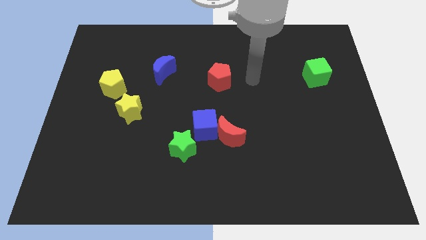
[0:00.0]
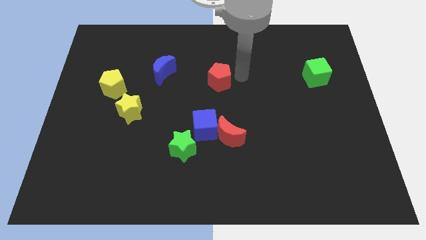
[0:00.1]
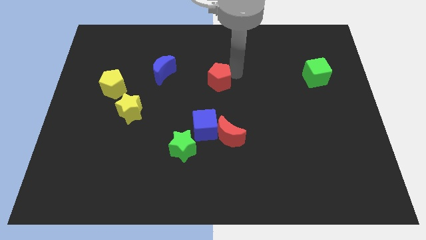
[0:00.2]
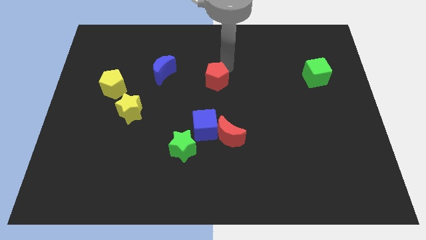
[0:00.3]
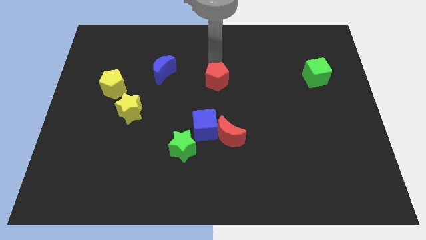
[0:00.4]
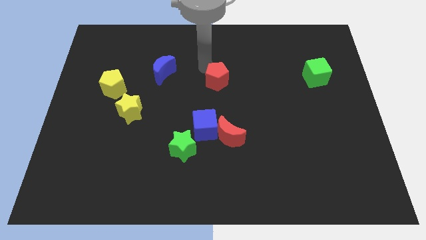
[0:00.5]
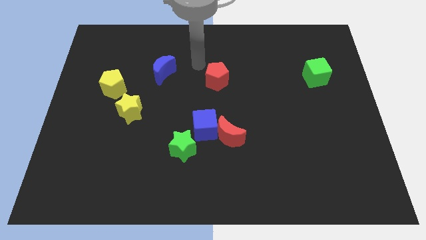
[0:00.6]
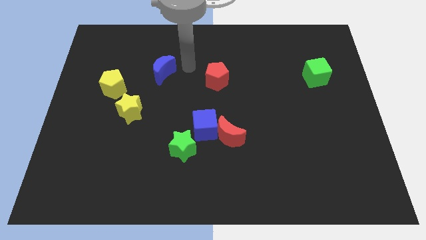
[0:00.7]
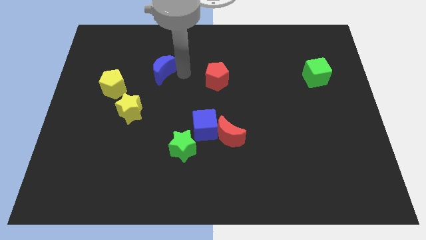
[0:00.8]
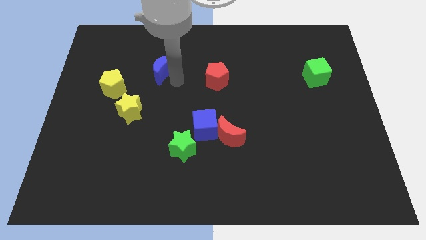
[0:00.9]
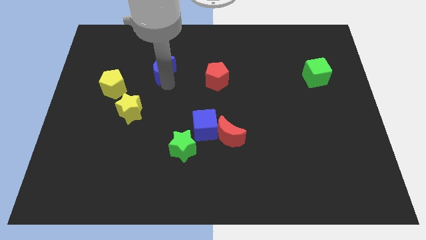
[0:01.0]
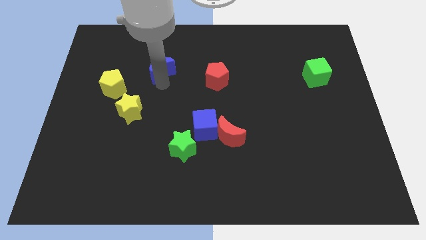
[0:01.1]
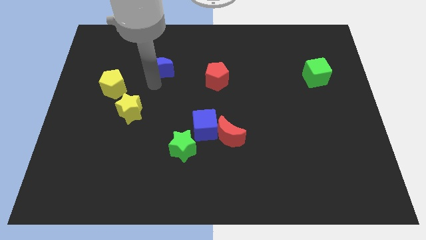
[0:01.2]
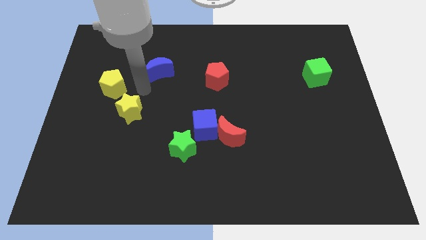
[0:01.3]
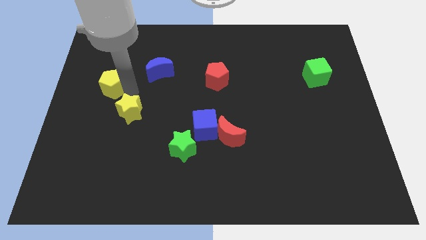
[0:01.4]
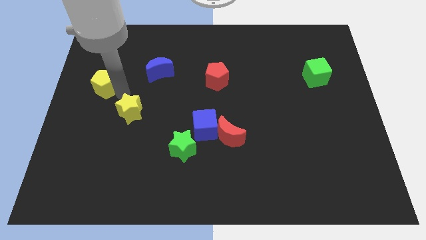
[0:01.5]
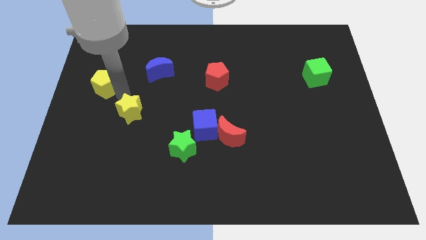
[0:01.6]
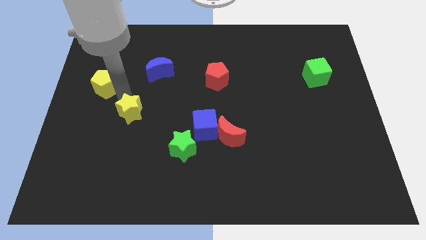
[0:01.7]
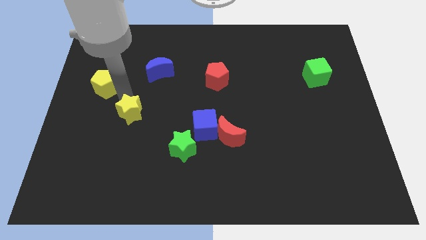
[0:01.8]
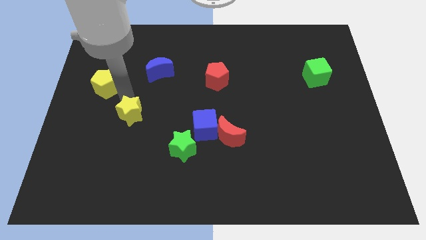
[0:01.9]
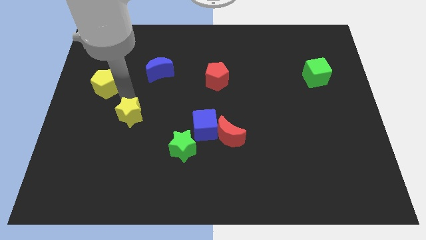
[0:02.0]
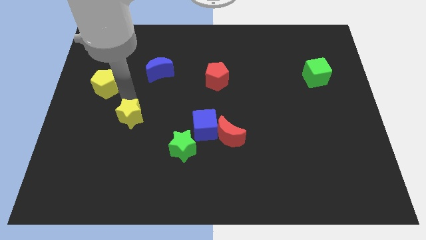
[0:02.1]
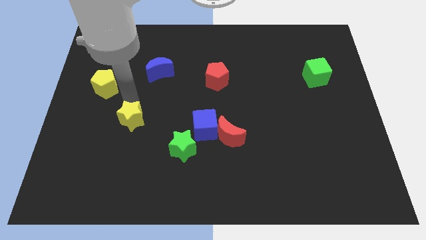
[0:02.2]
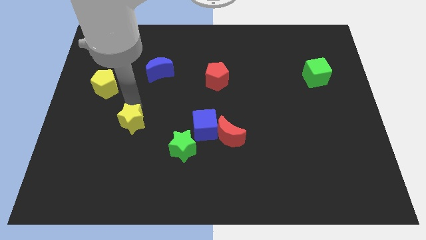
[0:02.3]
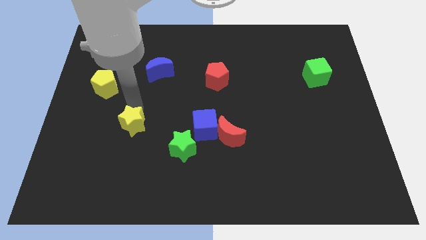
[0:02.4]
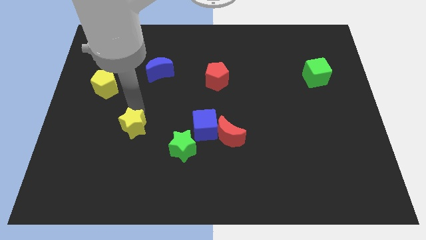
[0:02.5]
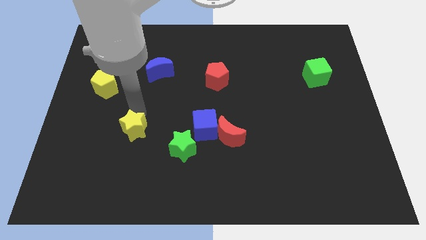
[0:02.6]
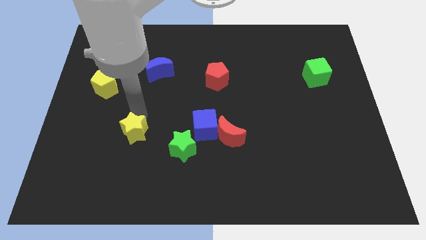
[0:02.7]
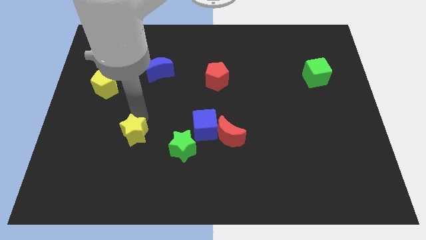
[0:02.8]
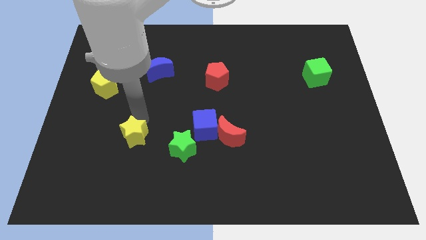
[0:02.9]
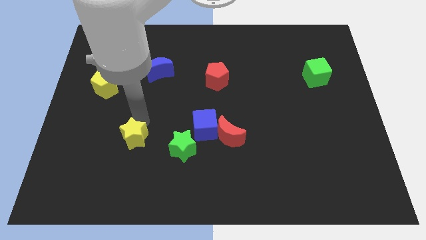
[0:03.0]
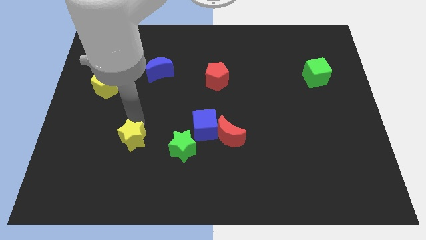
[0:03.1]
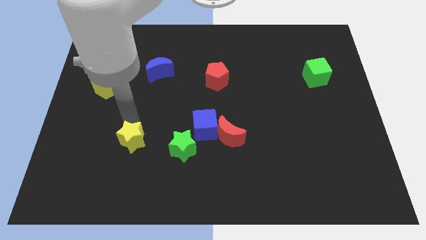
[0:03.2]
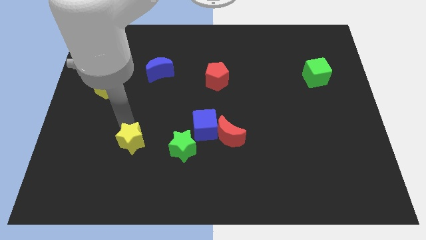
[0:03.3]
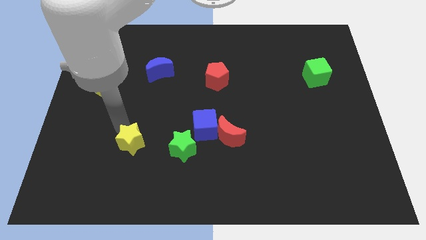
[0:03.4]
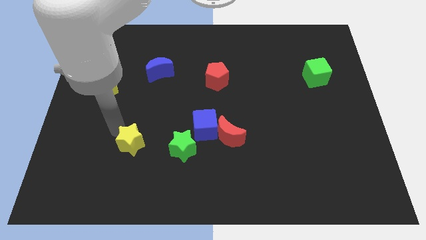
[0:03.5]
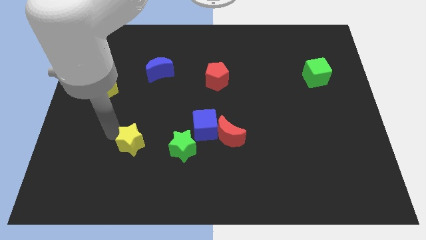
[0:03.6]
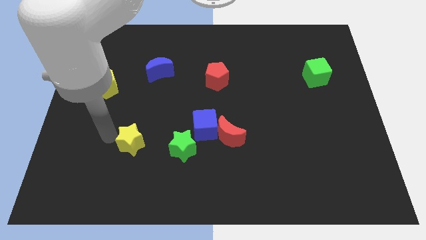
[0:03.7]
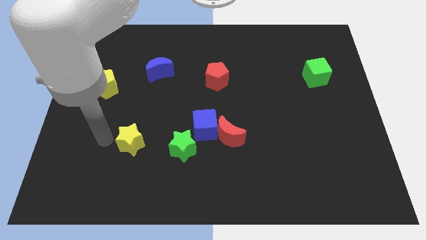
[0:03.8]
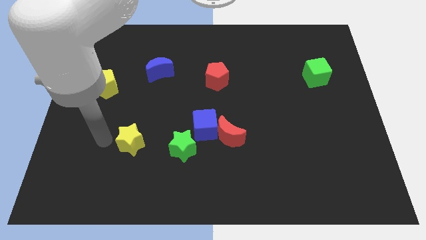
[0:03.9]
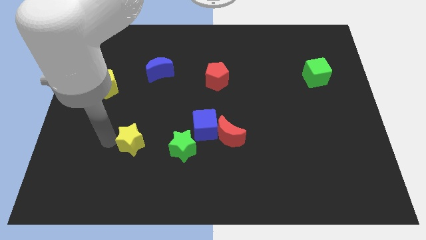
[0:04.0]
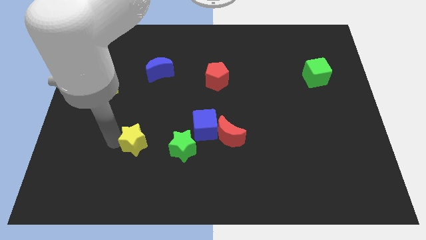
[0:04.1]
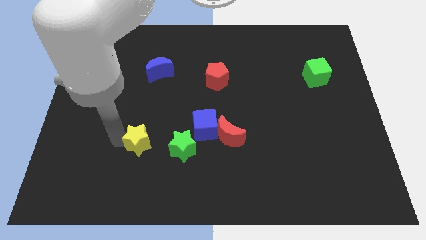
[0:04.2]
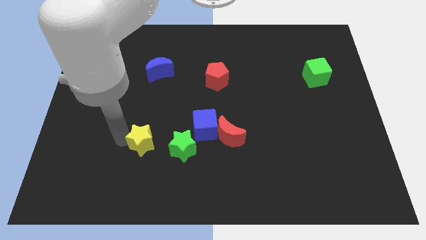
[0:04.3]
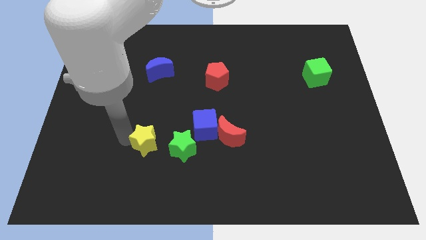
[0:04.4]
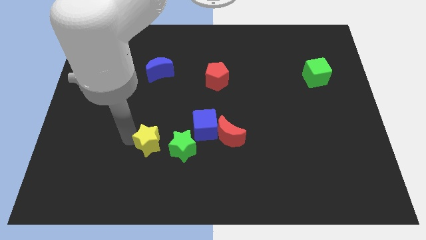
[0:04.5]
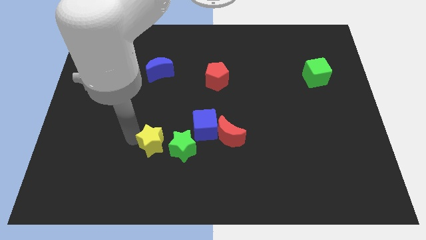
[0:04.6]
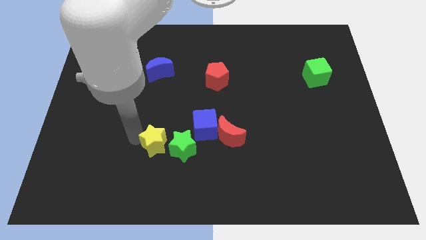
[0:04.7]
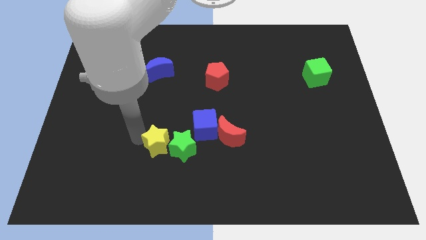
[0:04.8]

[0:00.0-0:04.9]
move the yellow star to the bottom left of the blue cube

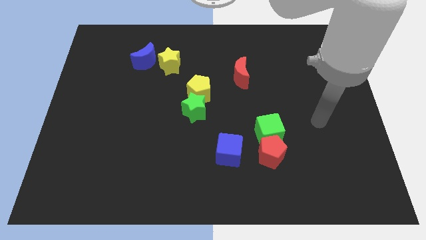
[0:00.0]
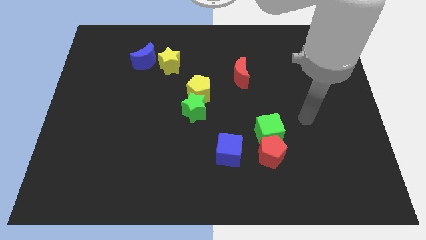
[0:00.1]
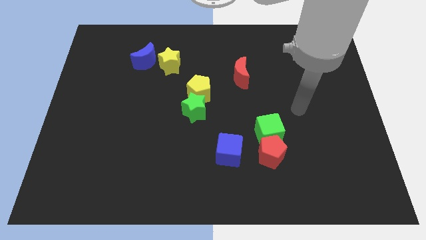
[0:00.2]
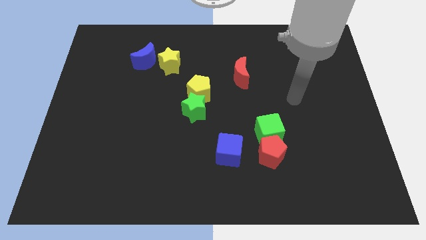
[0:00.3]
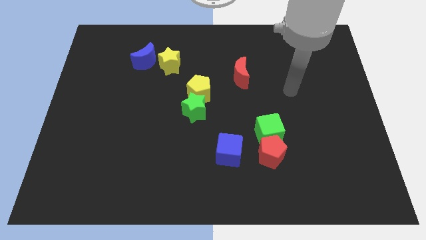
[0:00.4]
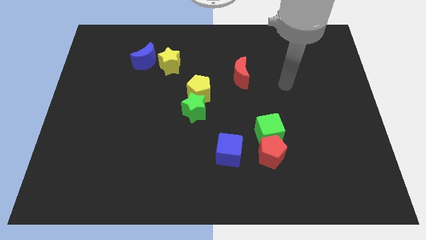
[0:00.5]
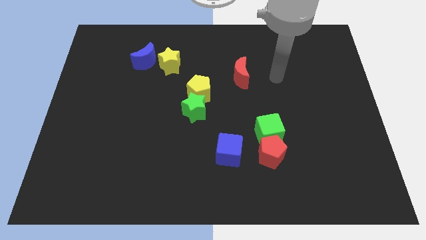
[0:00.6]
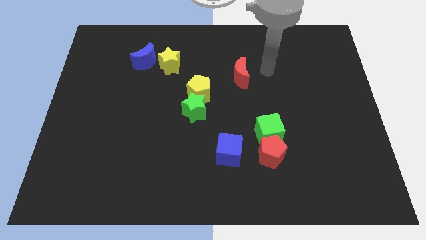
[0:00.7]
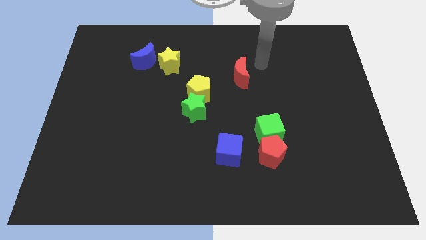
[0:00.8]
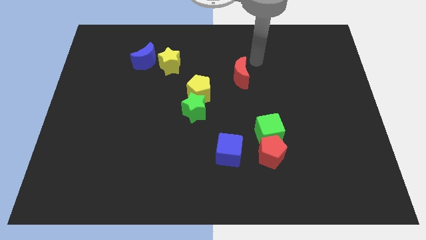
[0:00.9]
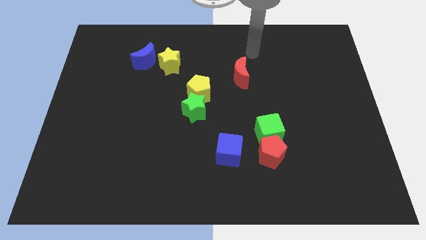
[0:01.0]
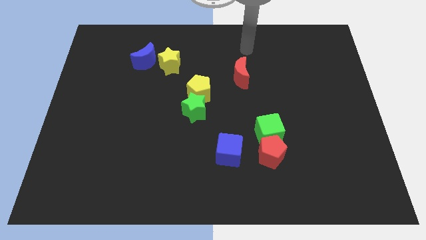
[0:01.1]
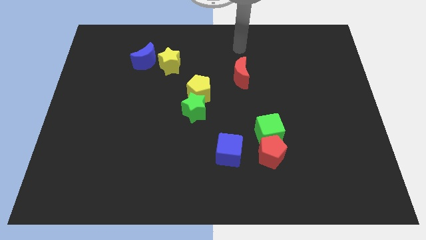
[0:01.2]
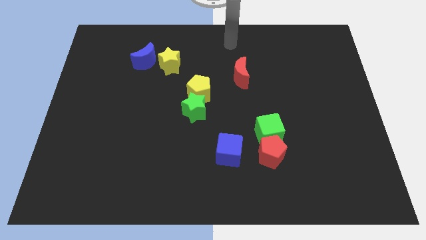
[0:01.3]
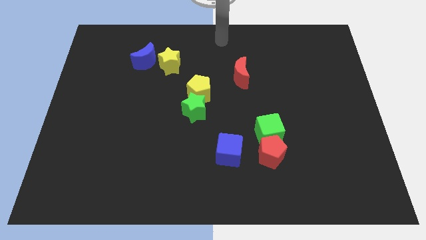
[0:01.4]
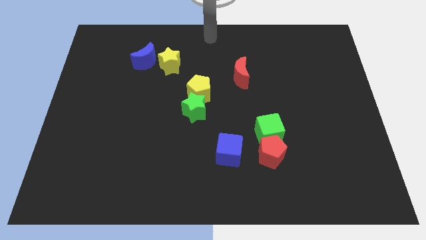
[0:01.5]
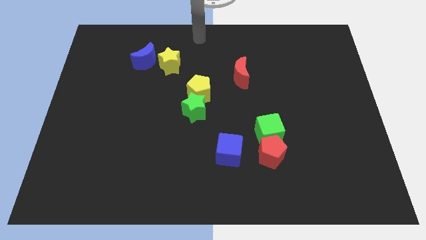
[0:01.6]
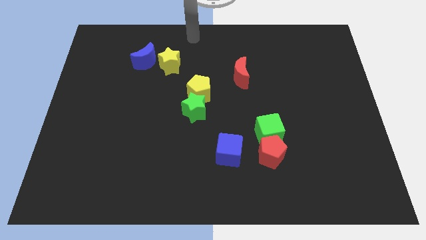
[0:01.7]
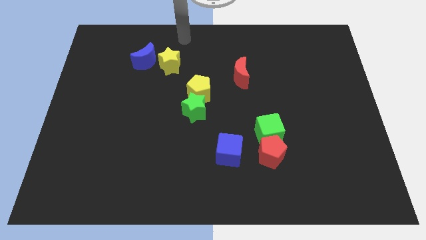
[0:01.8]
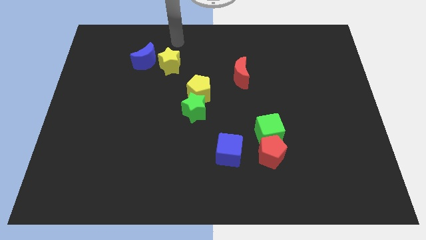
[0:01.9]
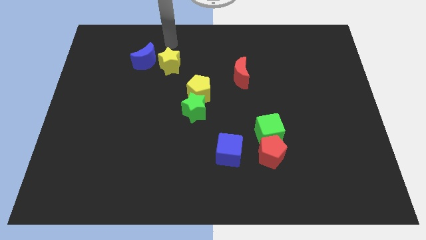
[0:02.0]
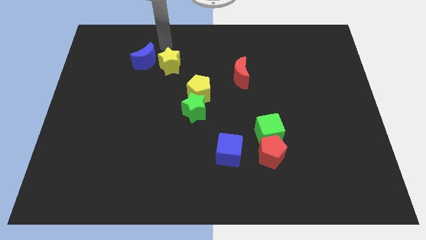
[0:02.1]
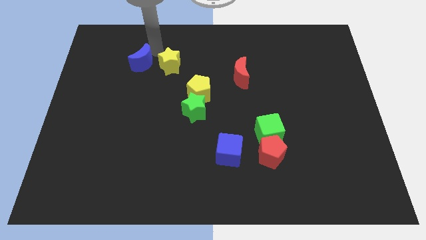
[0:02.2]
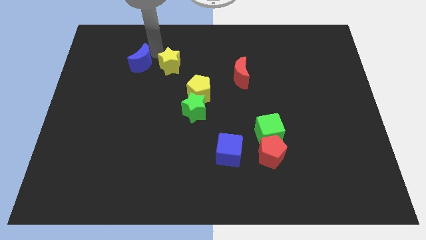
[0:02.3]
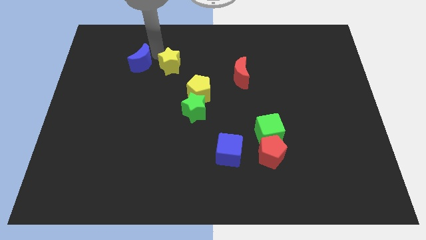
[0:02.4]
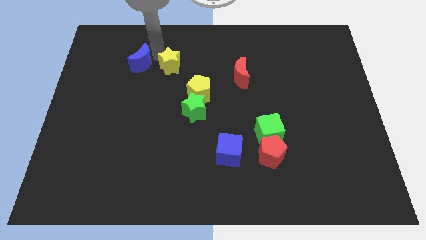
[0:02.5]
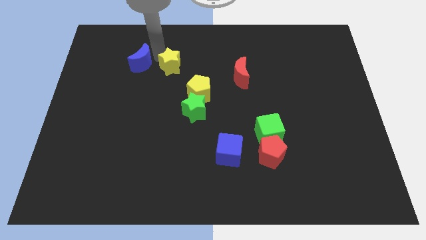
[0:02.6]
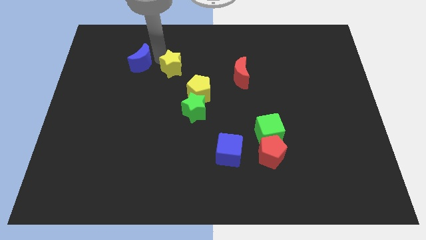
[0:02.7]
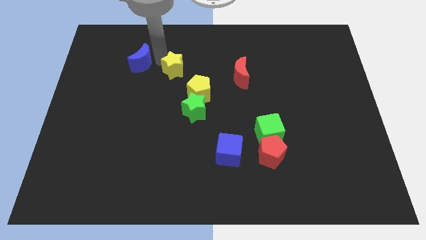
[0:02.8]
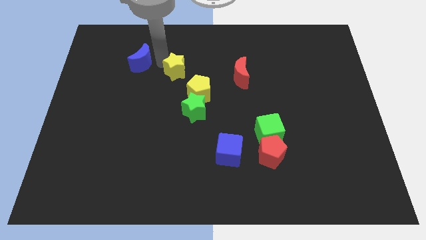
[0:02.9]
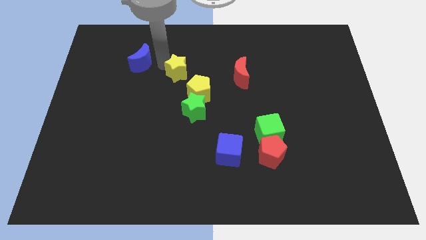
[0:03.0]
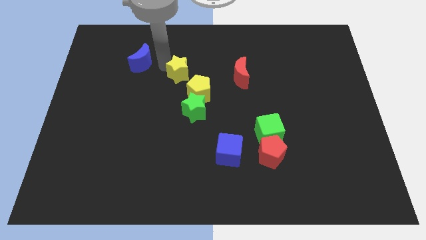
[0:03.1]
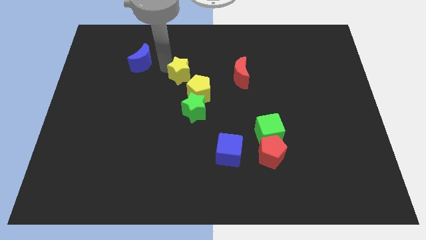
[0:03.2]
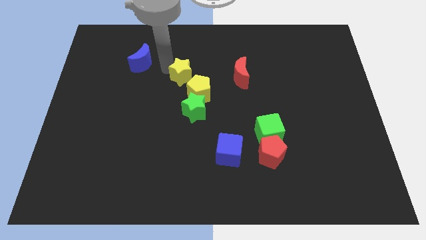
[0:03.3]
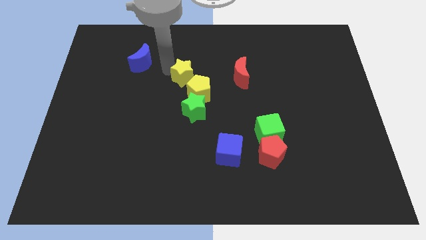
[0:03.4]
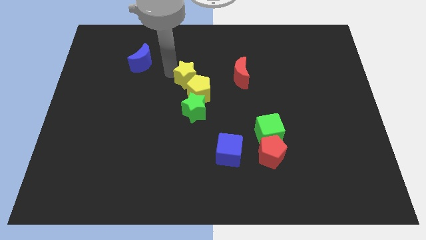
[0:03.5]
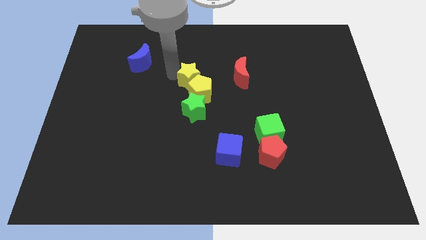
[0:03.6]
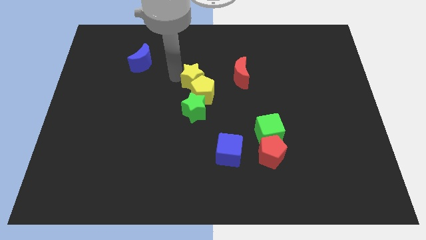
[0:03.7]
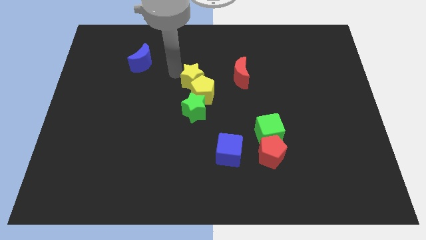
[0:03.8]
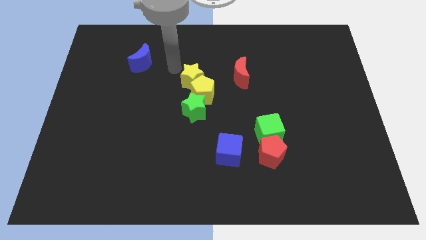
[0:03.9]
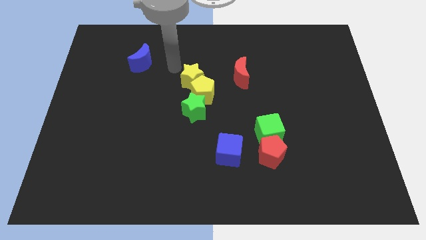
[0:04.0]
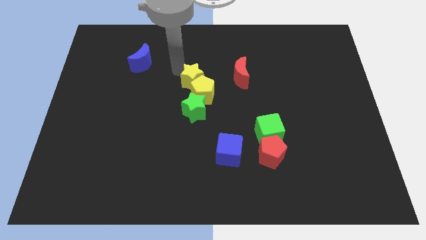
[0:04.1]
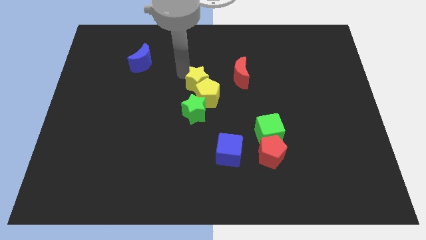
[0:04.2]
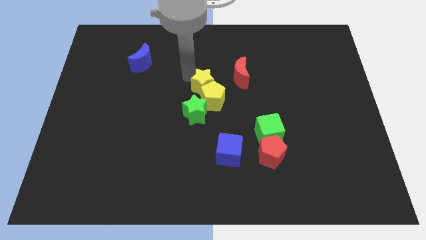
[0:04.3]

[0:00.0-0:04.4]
slide the yellow star diagonally up and to the right of the green star
